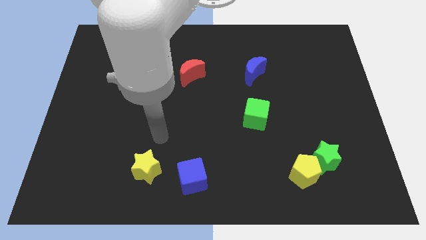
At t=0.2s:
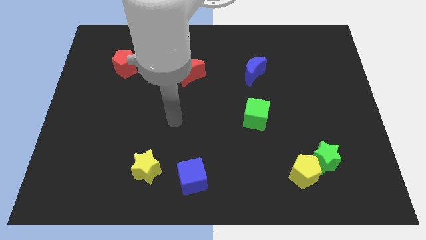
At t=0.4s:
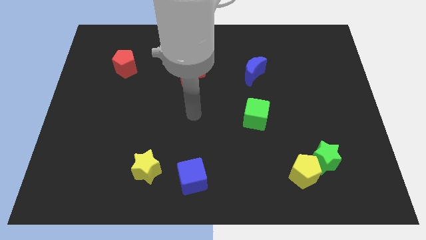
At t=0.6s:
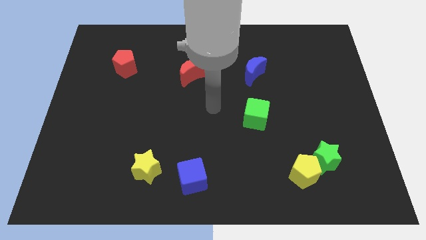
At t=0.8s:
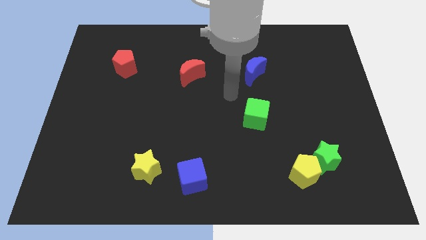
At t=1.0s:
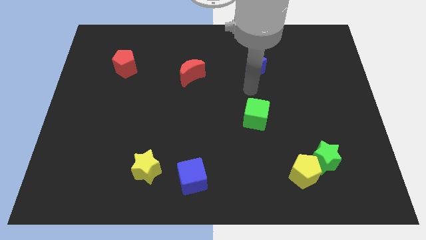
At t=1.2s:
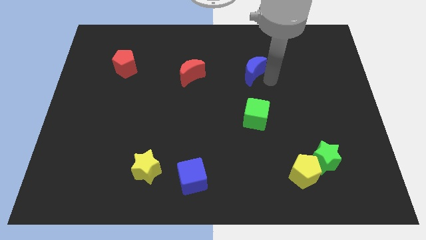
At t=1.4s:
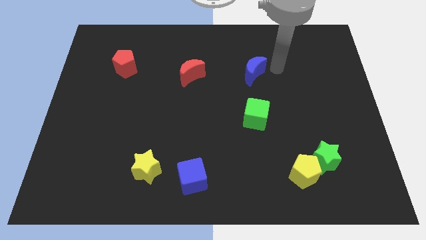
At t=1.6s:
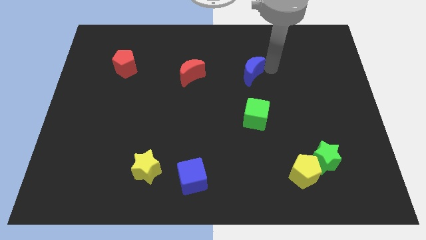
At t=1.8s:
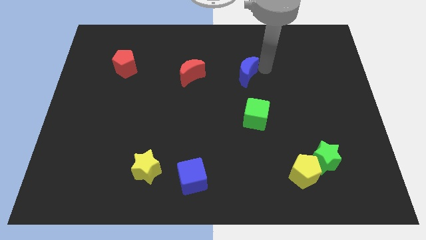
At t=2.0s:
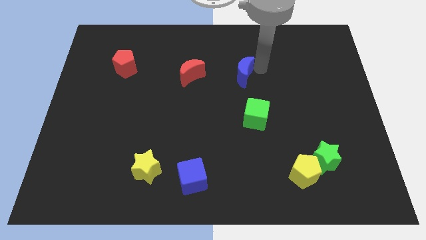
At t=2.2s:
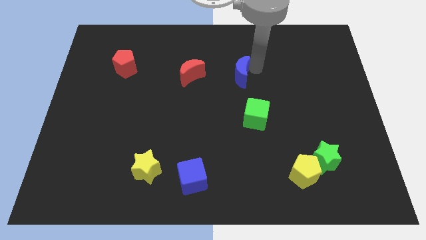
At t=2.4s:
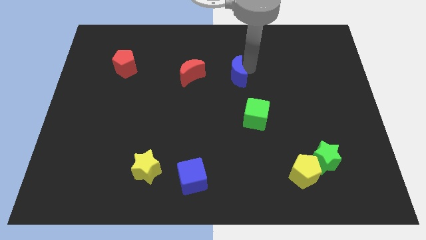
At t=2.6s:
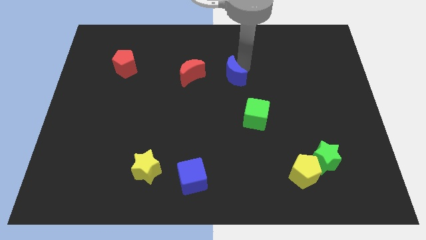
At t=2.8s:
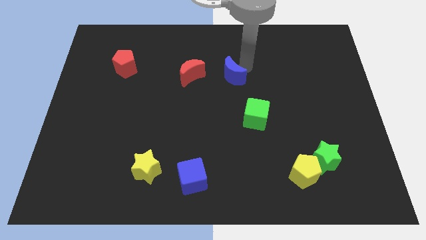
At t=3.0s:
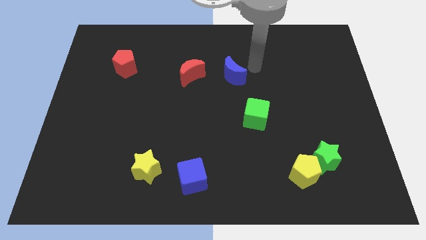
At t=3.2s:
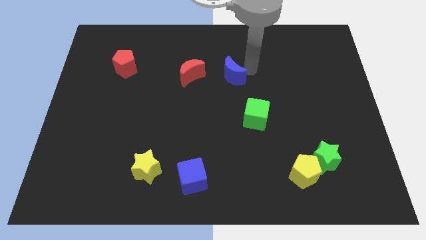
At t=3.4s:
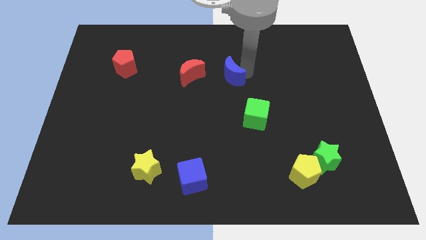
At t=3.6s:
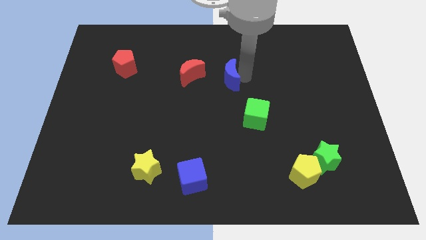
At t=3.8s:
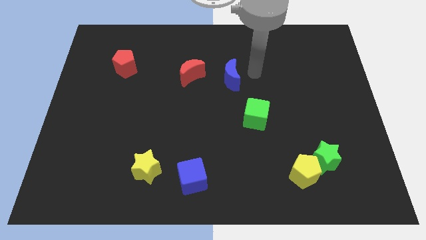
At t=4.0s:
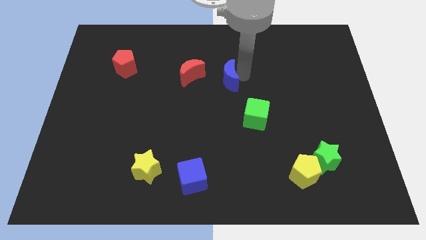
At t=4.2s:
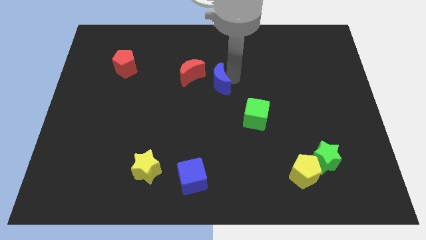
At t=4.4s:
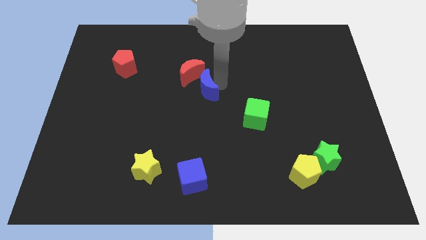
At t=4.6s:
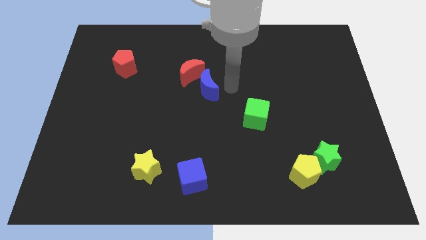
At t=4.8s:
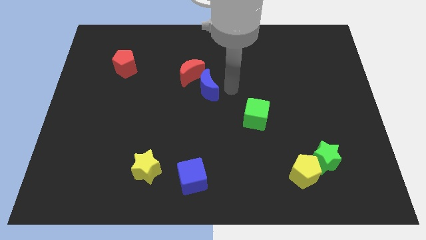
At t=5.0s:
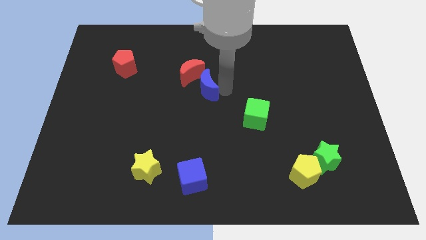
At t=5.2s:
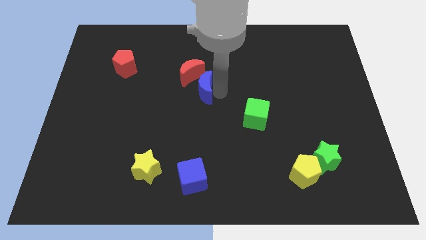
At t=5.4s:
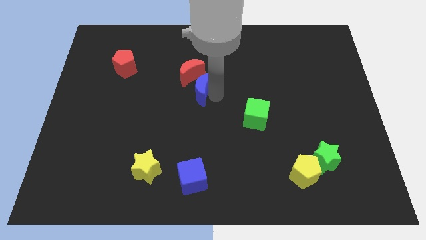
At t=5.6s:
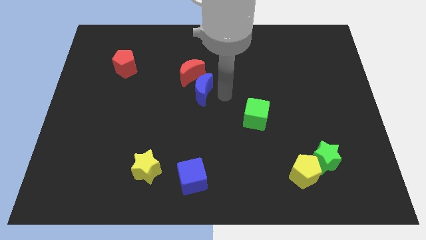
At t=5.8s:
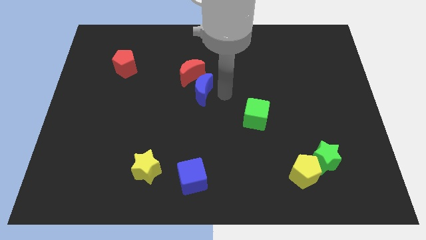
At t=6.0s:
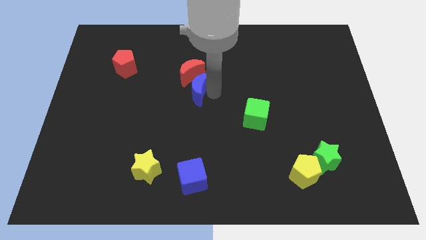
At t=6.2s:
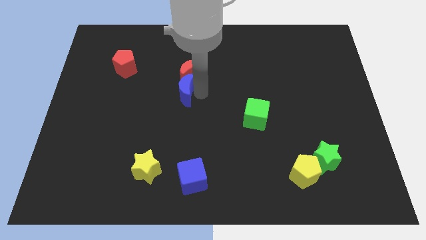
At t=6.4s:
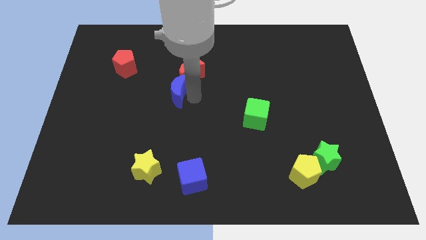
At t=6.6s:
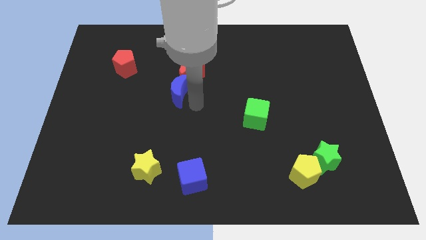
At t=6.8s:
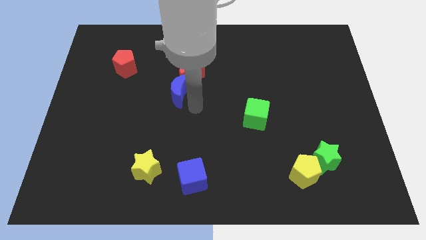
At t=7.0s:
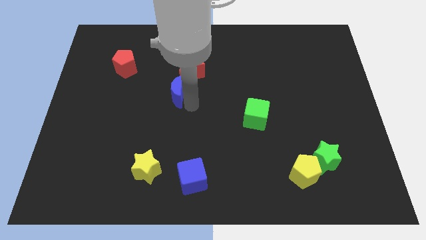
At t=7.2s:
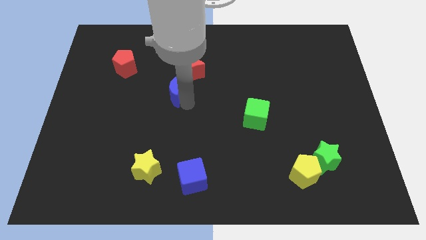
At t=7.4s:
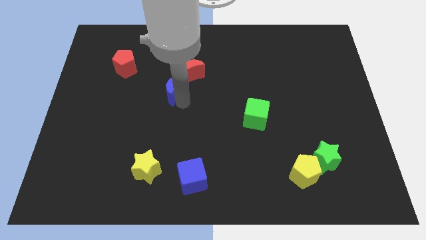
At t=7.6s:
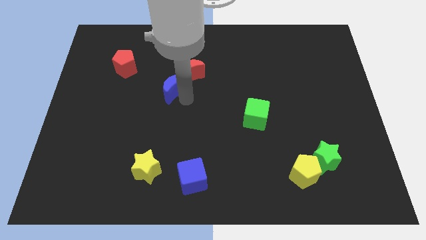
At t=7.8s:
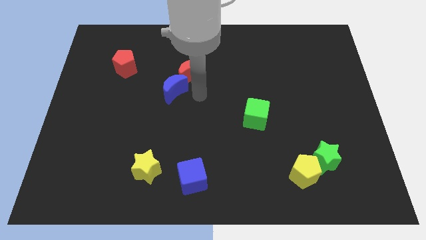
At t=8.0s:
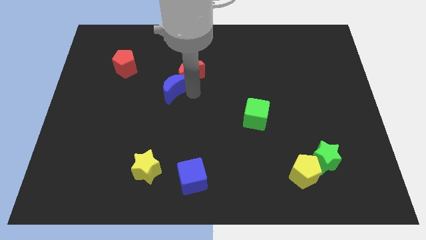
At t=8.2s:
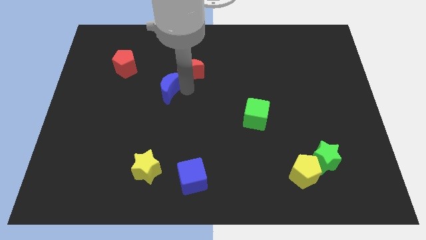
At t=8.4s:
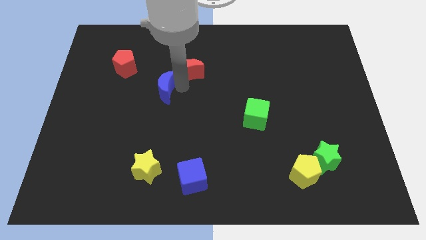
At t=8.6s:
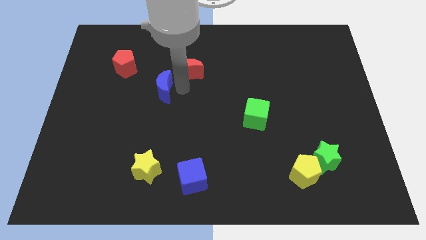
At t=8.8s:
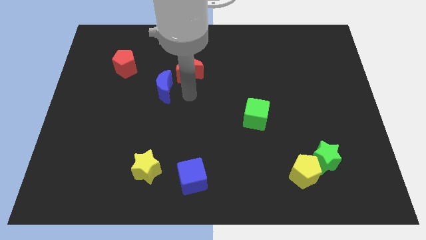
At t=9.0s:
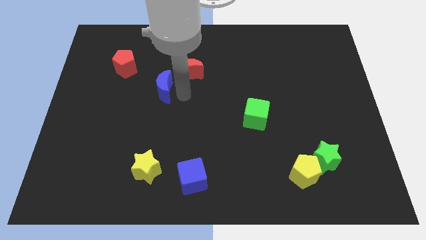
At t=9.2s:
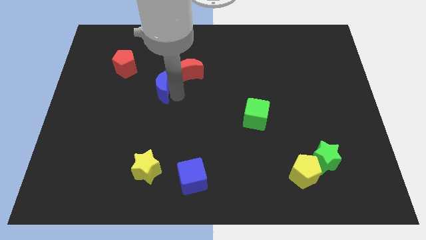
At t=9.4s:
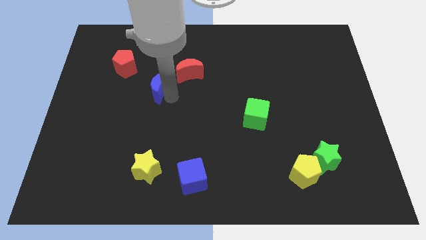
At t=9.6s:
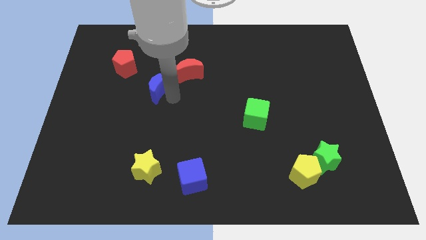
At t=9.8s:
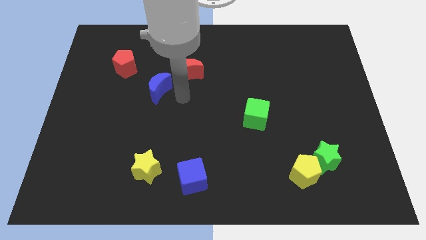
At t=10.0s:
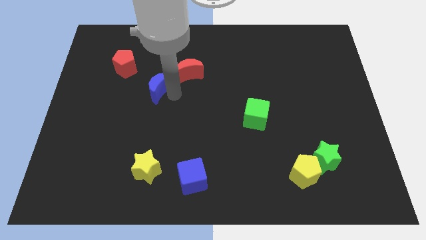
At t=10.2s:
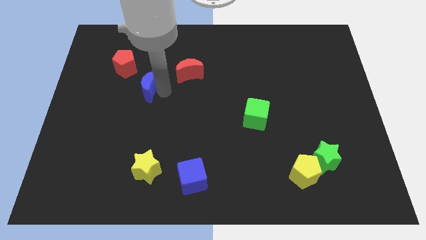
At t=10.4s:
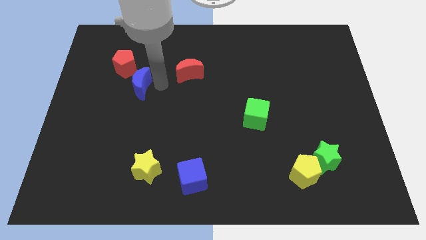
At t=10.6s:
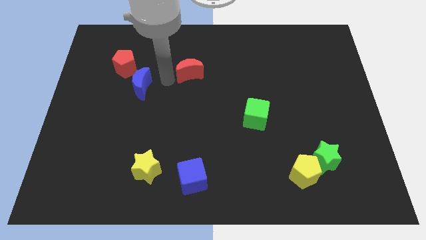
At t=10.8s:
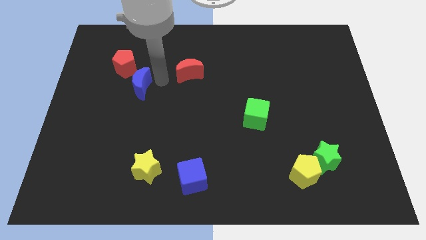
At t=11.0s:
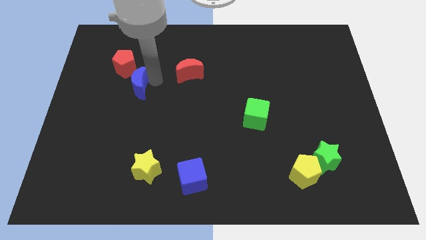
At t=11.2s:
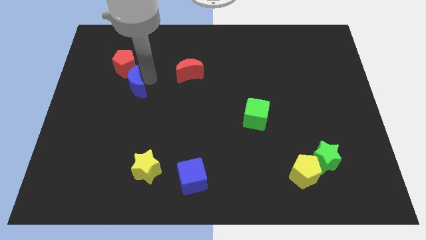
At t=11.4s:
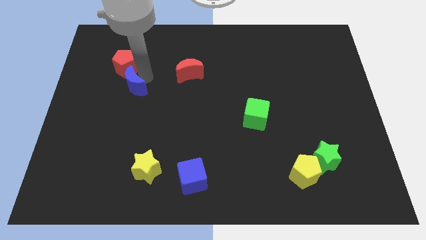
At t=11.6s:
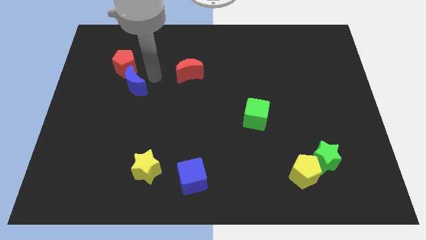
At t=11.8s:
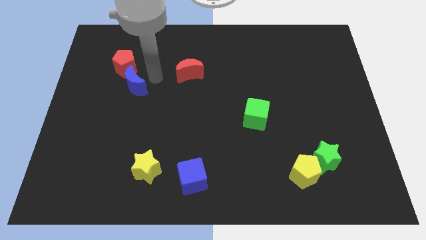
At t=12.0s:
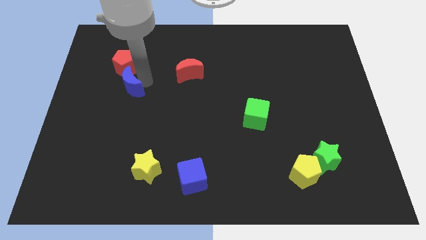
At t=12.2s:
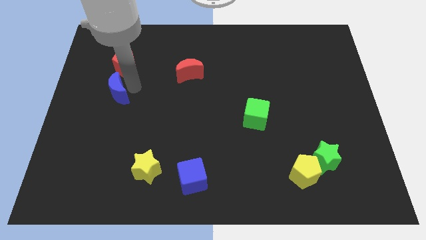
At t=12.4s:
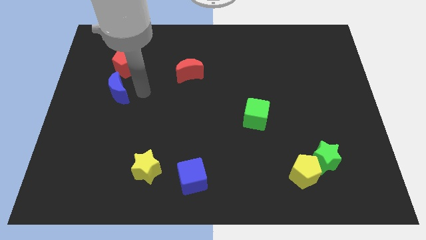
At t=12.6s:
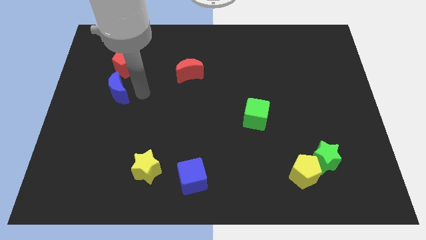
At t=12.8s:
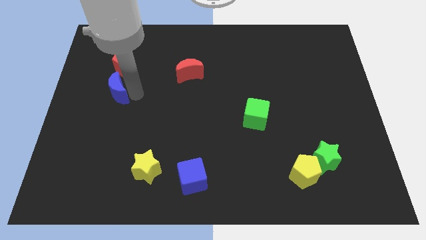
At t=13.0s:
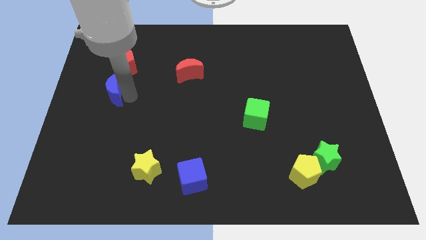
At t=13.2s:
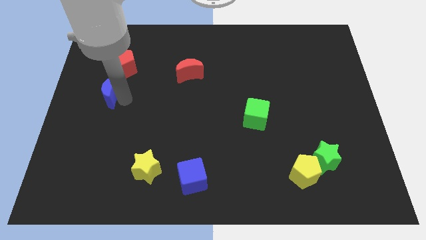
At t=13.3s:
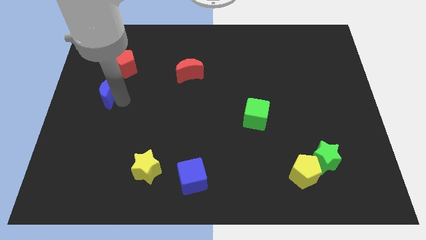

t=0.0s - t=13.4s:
slide the blue moon to the left side

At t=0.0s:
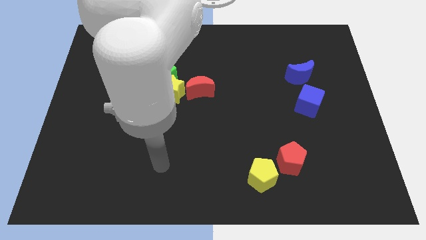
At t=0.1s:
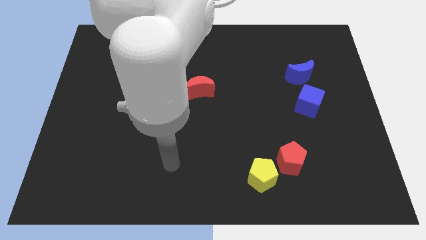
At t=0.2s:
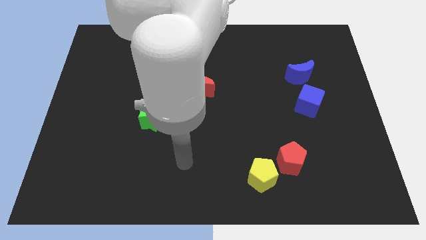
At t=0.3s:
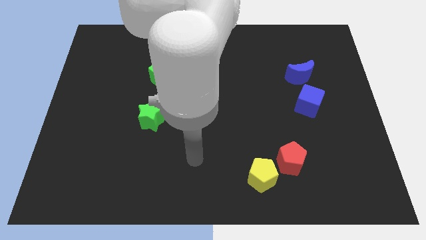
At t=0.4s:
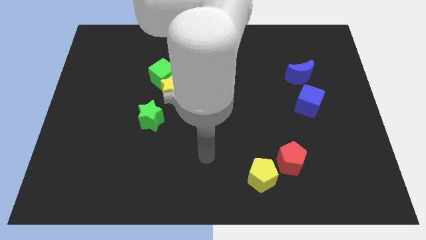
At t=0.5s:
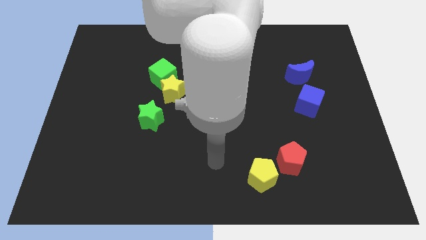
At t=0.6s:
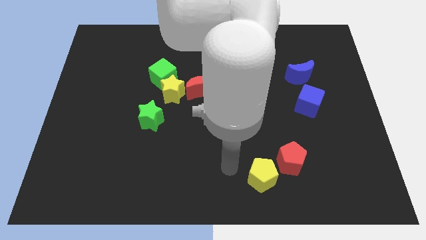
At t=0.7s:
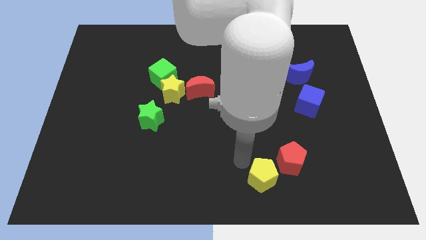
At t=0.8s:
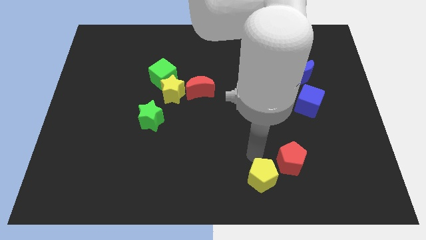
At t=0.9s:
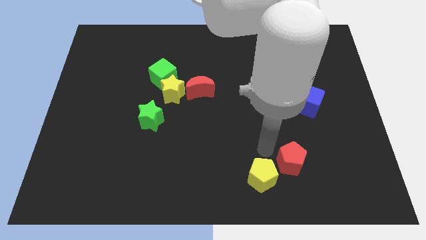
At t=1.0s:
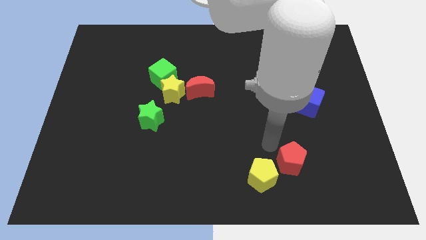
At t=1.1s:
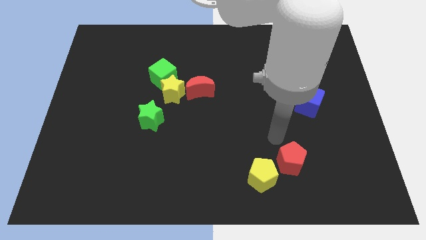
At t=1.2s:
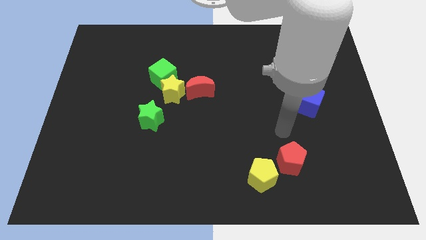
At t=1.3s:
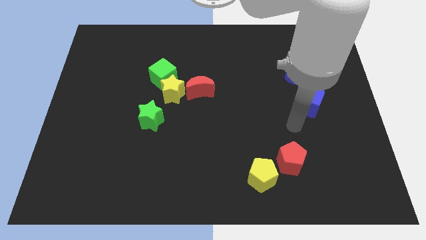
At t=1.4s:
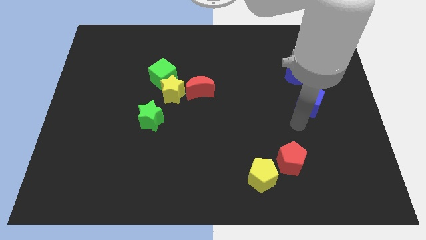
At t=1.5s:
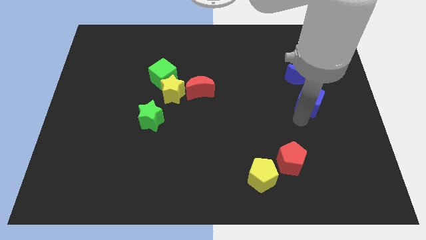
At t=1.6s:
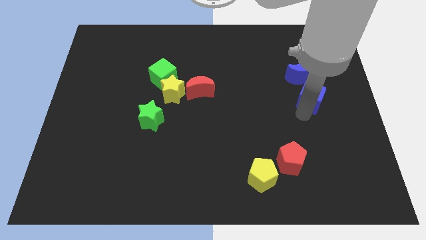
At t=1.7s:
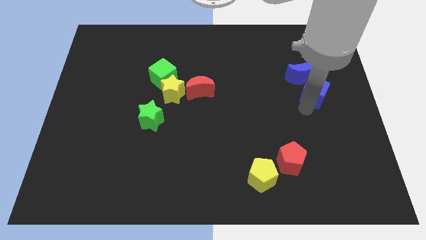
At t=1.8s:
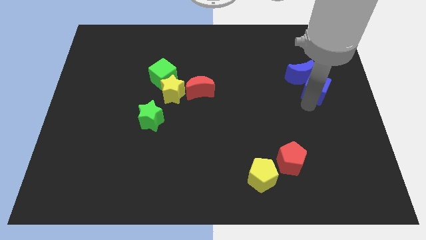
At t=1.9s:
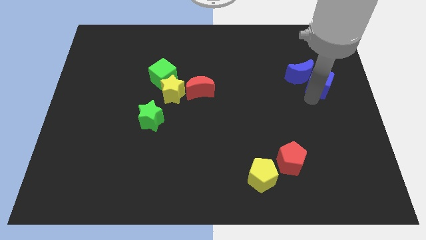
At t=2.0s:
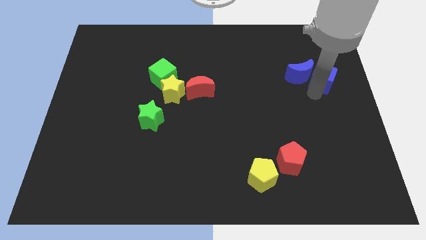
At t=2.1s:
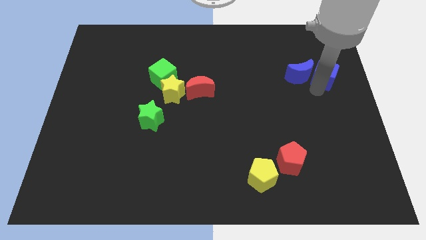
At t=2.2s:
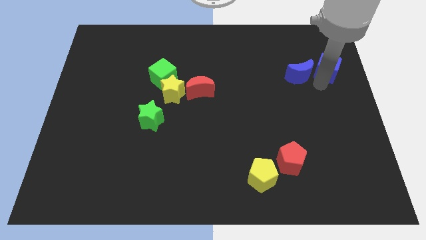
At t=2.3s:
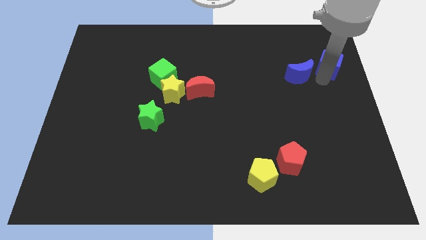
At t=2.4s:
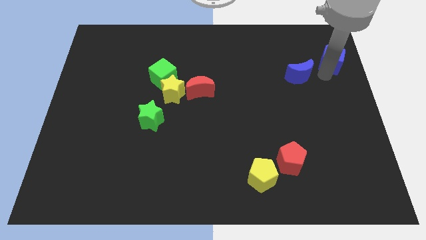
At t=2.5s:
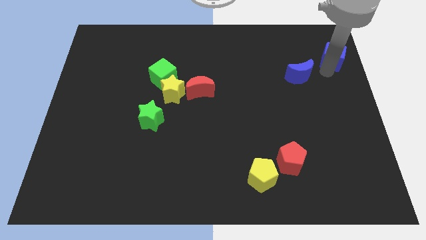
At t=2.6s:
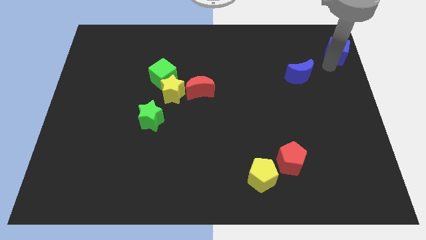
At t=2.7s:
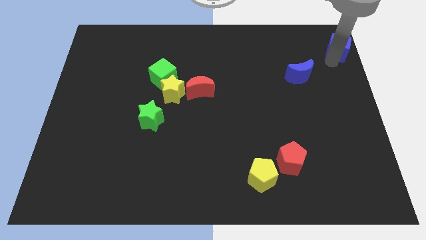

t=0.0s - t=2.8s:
slide the blue cube to the top right corner
